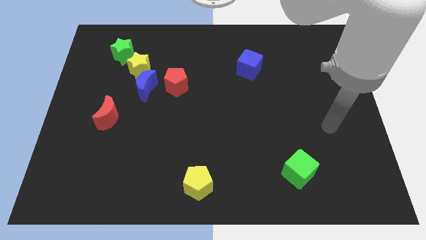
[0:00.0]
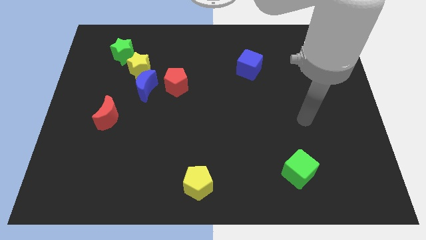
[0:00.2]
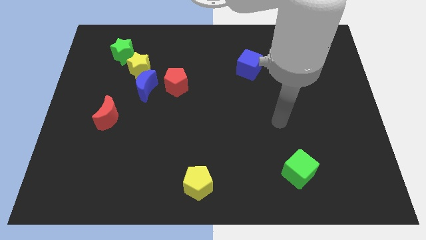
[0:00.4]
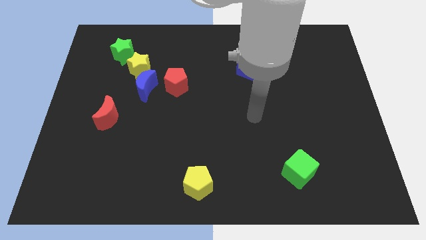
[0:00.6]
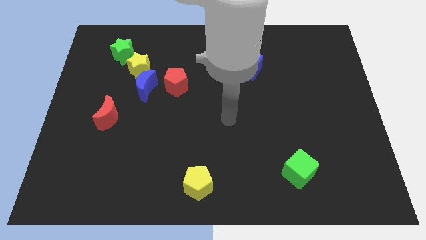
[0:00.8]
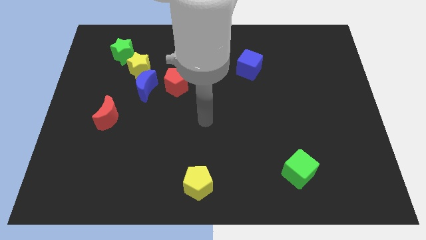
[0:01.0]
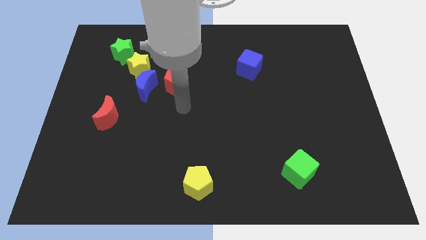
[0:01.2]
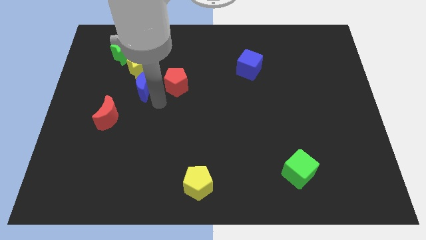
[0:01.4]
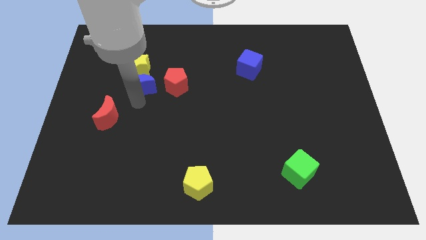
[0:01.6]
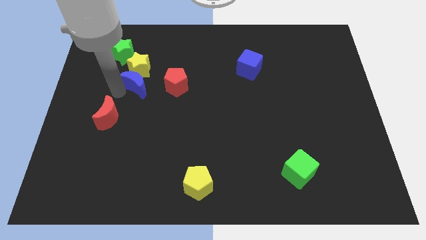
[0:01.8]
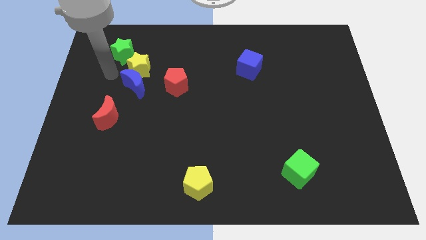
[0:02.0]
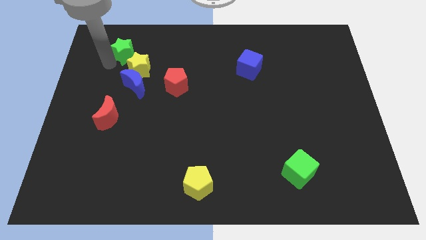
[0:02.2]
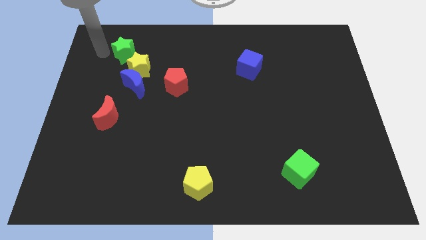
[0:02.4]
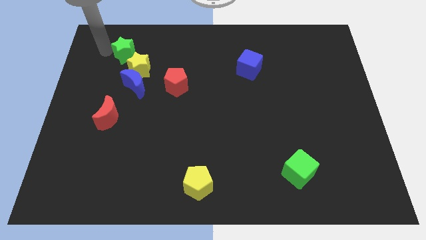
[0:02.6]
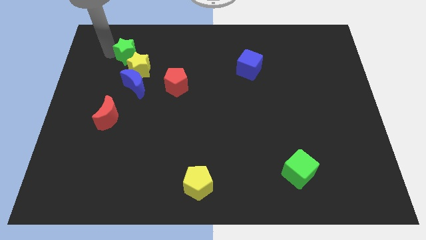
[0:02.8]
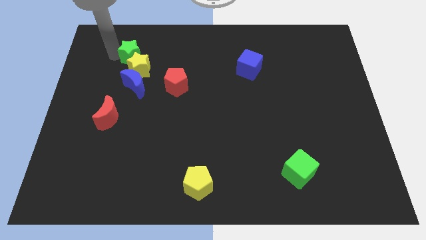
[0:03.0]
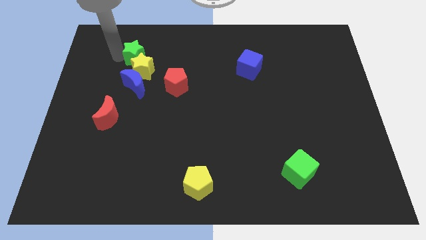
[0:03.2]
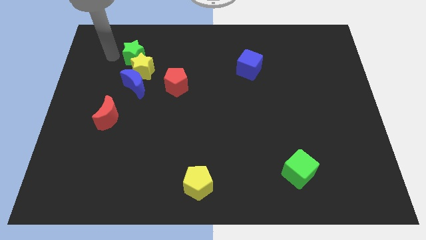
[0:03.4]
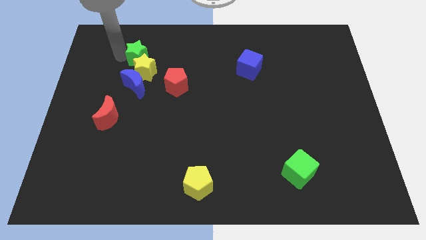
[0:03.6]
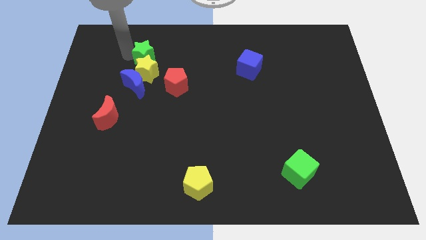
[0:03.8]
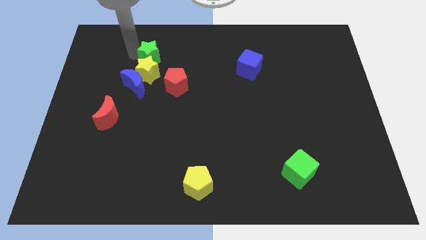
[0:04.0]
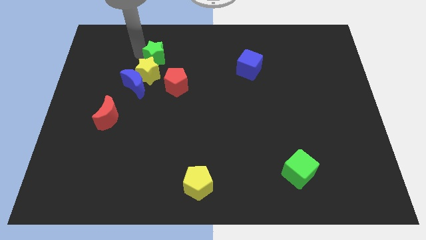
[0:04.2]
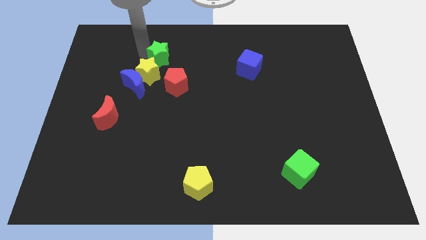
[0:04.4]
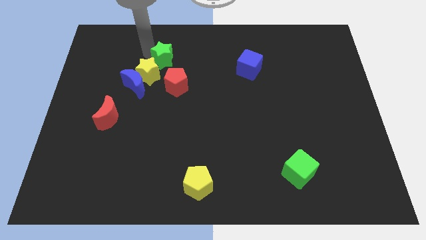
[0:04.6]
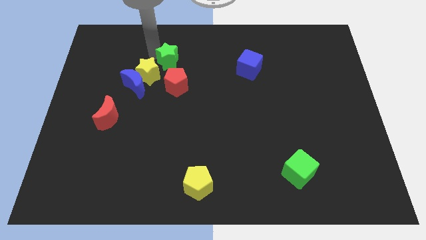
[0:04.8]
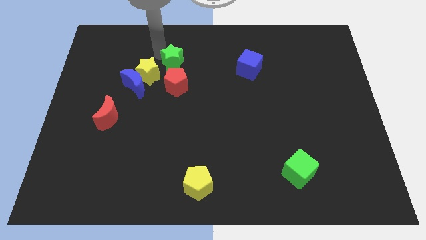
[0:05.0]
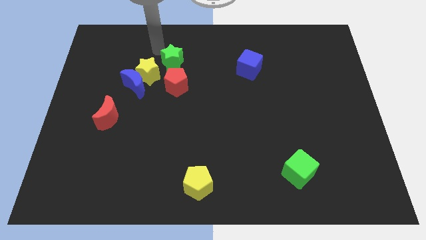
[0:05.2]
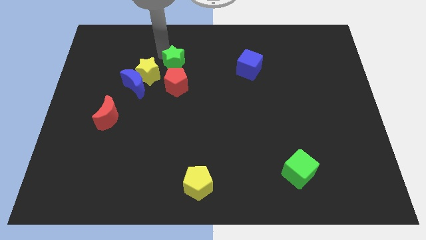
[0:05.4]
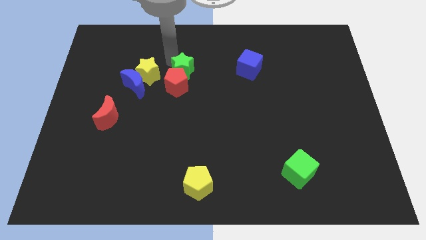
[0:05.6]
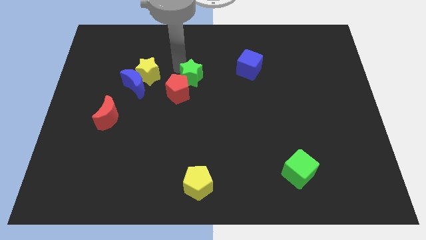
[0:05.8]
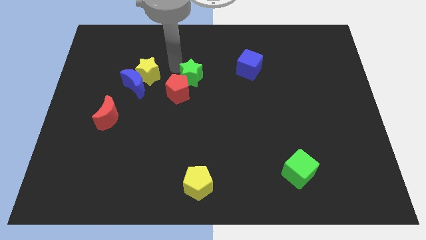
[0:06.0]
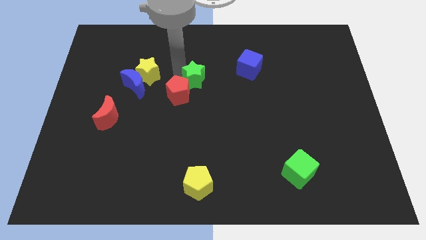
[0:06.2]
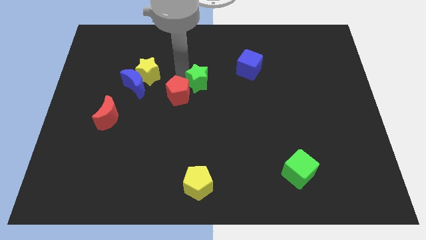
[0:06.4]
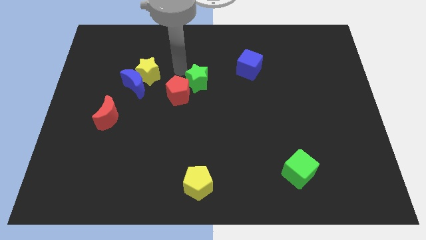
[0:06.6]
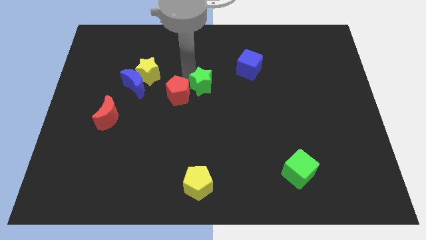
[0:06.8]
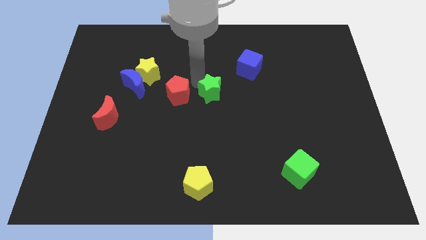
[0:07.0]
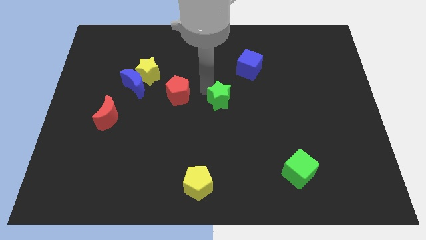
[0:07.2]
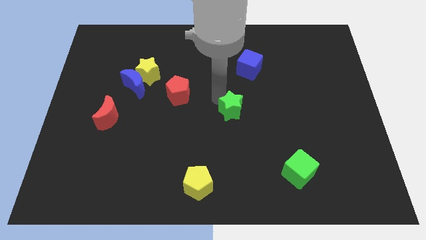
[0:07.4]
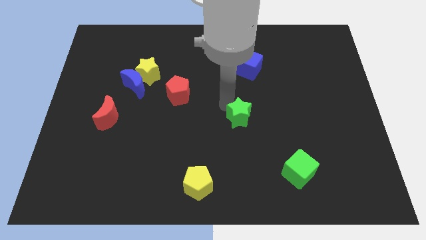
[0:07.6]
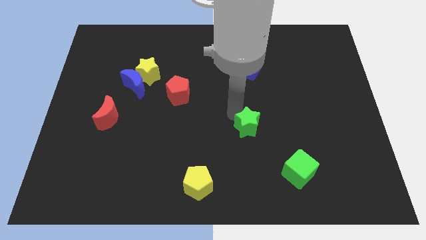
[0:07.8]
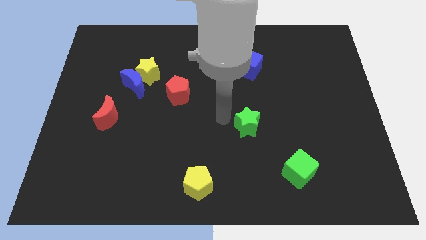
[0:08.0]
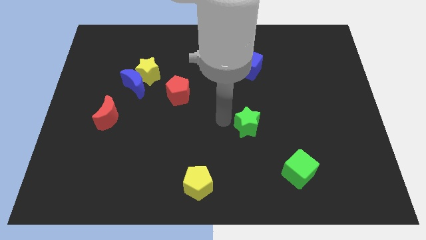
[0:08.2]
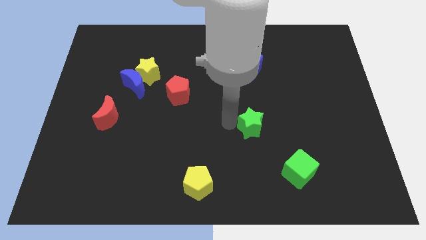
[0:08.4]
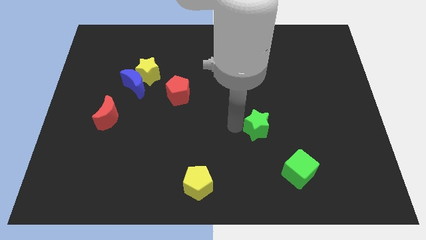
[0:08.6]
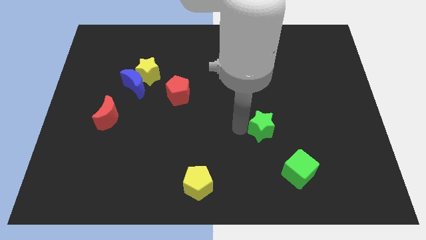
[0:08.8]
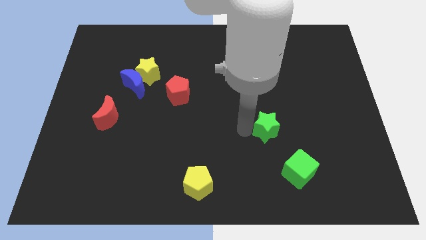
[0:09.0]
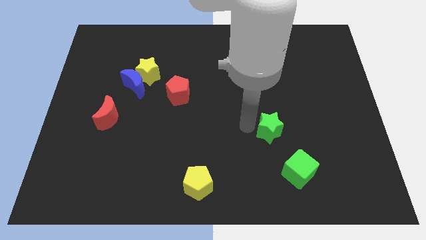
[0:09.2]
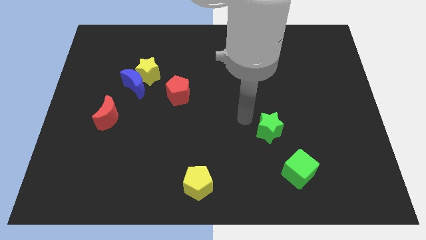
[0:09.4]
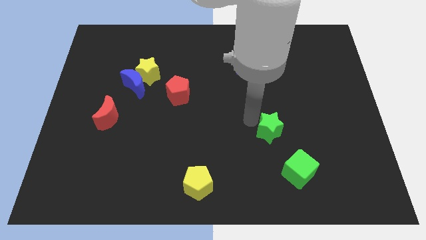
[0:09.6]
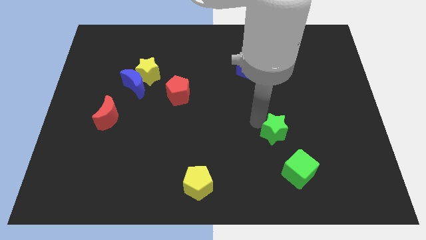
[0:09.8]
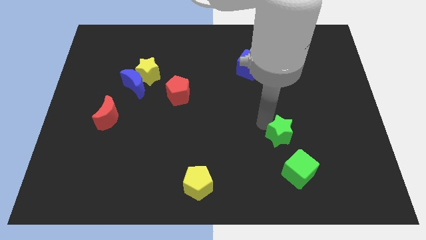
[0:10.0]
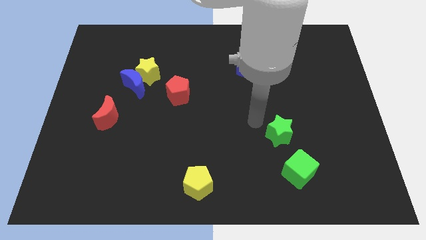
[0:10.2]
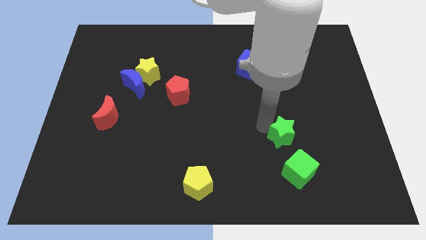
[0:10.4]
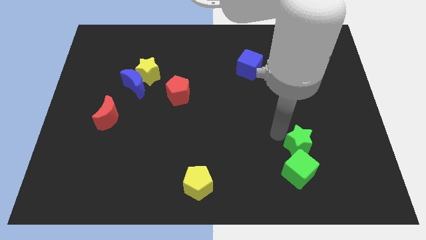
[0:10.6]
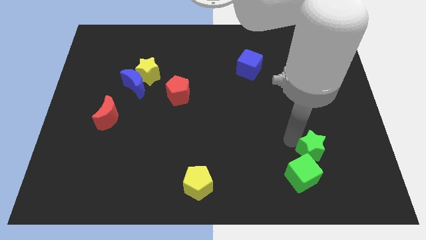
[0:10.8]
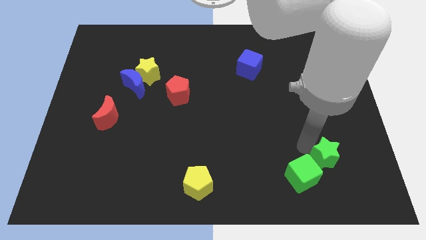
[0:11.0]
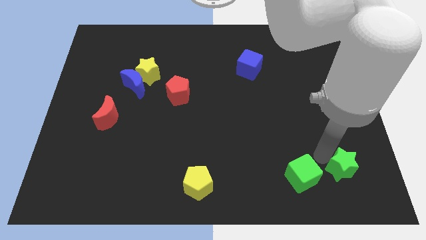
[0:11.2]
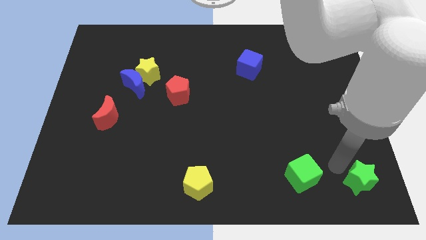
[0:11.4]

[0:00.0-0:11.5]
push the green star to the lower right corner

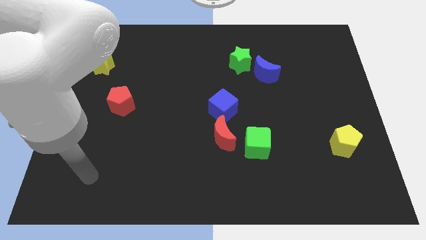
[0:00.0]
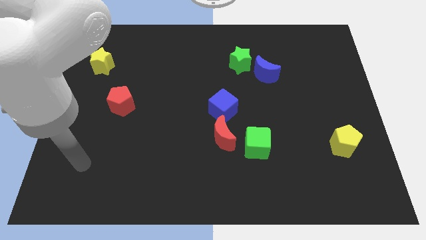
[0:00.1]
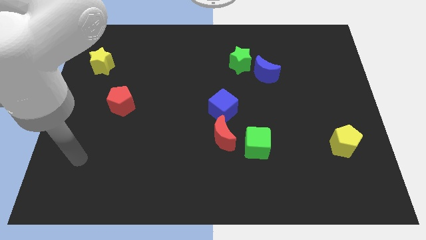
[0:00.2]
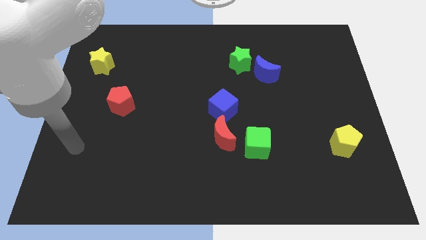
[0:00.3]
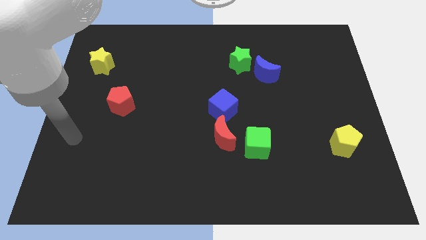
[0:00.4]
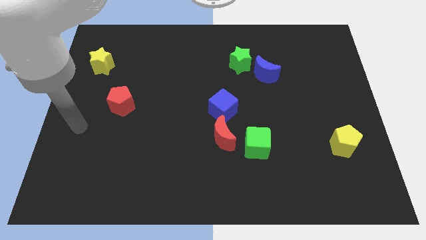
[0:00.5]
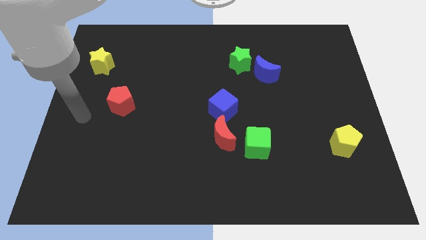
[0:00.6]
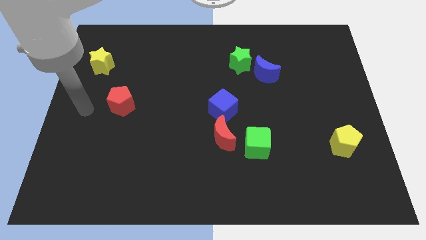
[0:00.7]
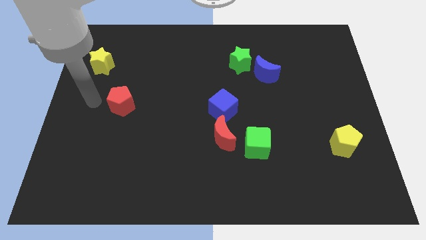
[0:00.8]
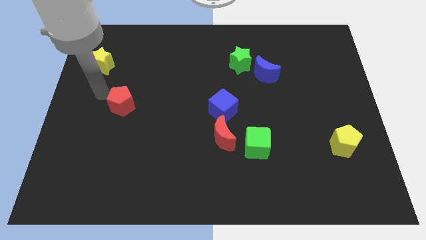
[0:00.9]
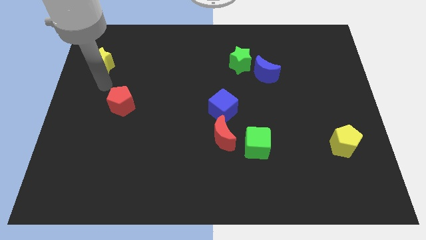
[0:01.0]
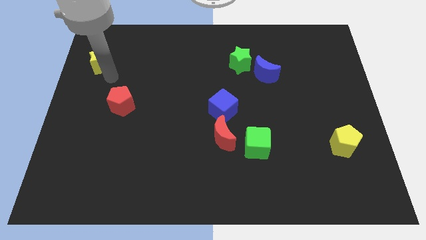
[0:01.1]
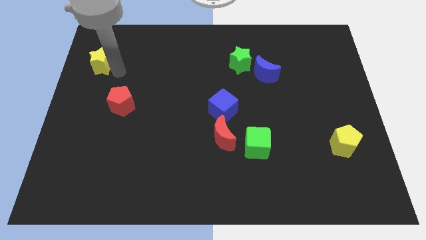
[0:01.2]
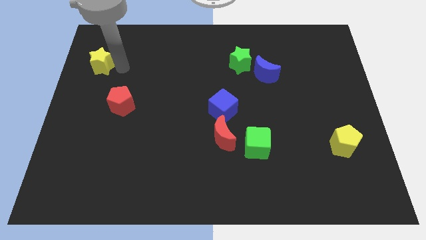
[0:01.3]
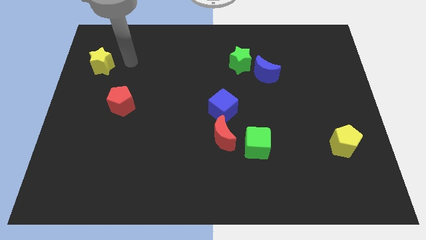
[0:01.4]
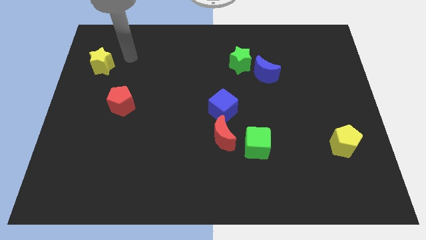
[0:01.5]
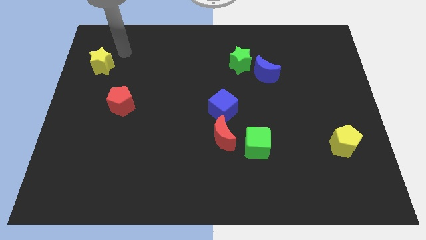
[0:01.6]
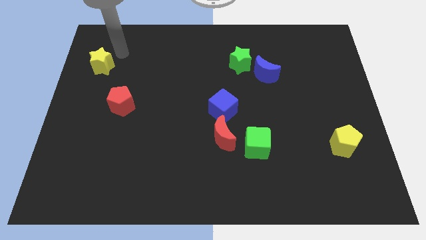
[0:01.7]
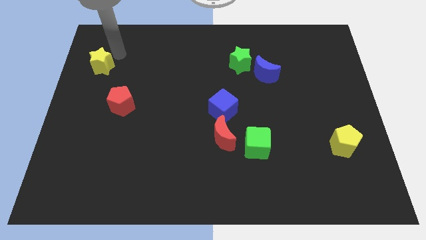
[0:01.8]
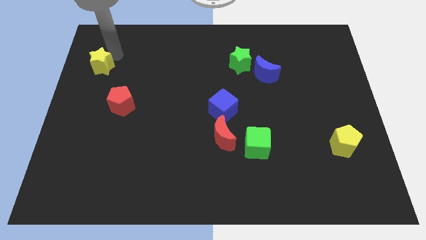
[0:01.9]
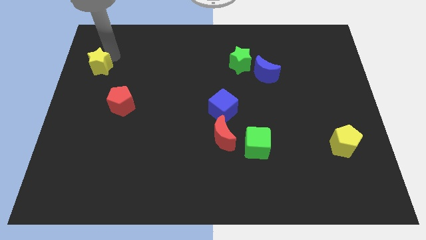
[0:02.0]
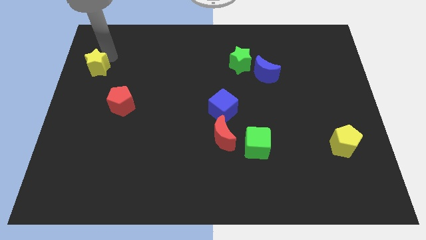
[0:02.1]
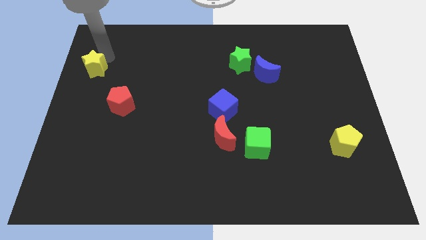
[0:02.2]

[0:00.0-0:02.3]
slide the yellow star to the left side of the board
